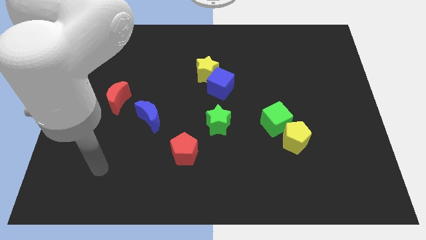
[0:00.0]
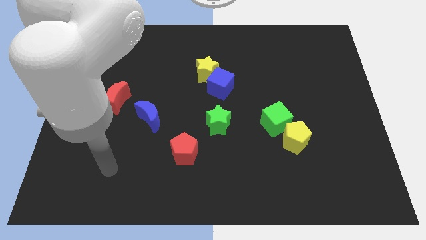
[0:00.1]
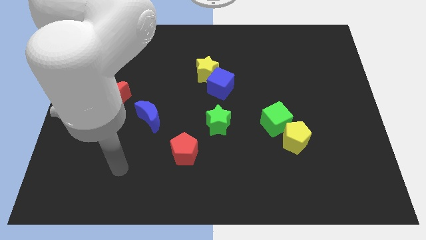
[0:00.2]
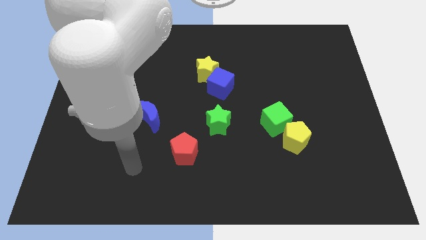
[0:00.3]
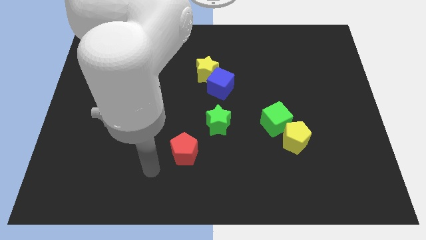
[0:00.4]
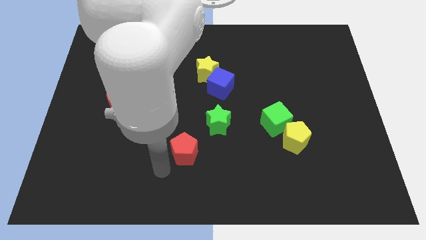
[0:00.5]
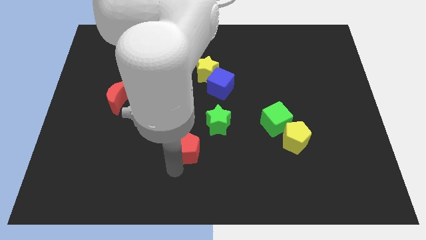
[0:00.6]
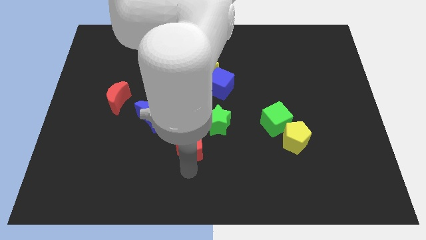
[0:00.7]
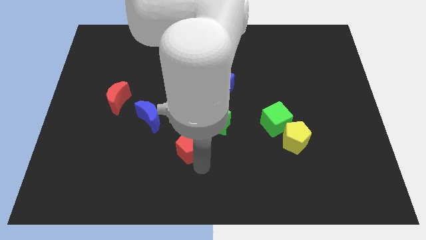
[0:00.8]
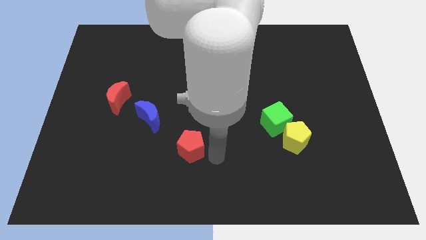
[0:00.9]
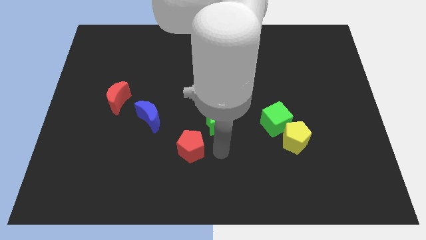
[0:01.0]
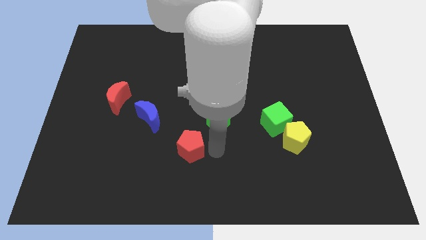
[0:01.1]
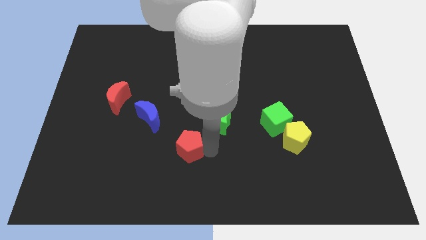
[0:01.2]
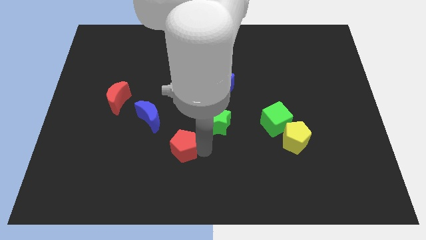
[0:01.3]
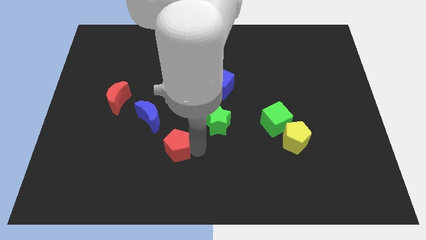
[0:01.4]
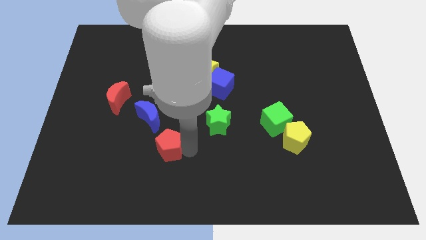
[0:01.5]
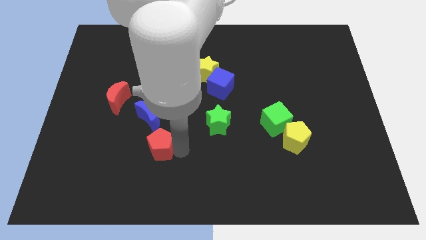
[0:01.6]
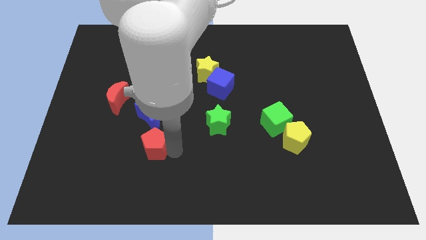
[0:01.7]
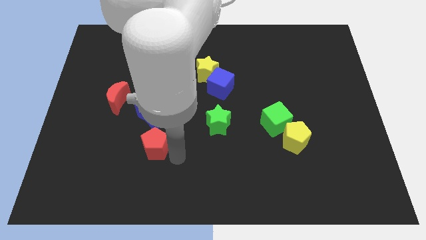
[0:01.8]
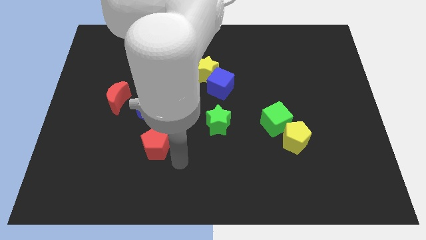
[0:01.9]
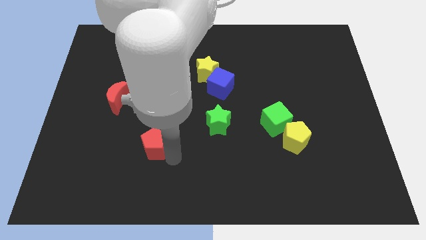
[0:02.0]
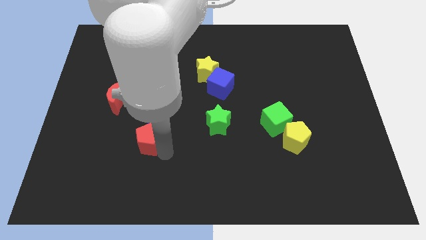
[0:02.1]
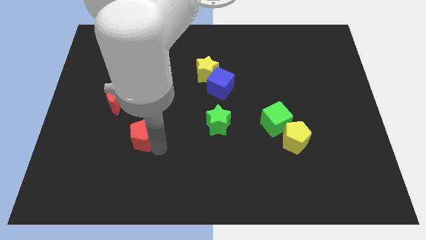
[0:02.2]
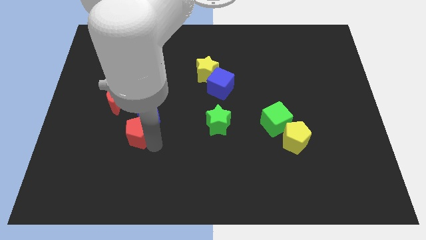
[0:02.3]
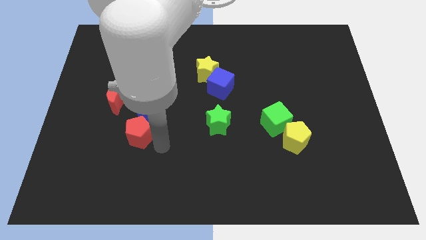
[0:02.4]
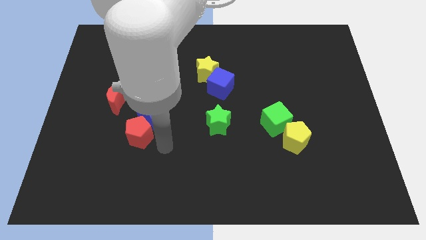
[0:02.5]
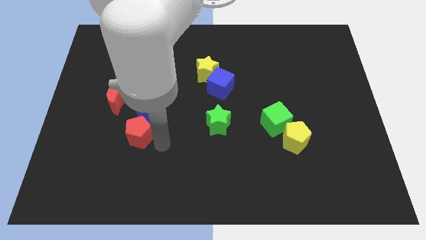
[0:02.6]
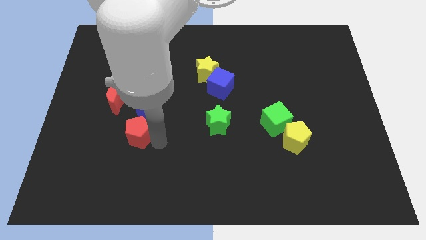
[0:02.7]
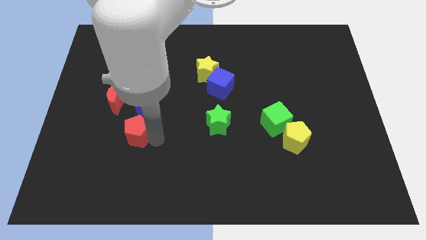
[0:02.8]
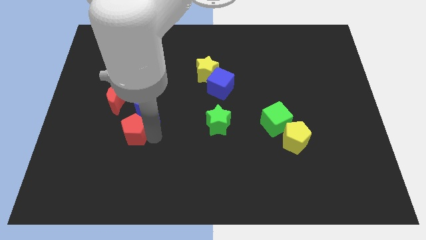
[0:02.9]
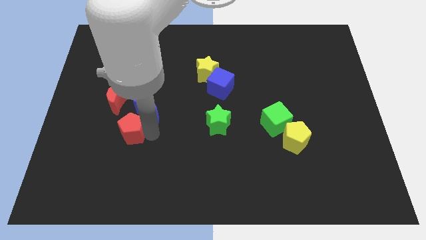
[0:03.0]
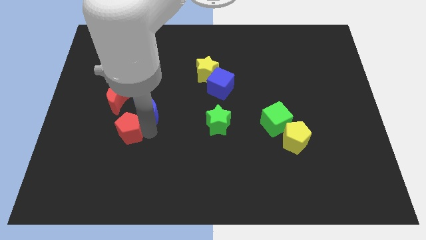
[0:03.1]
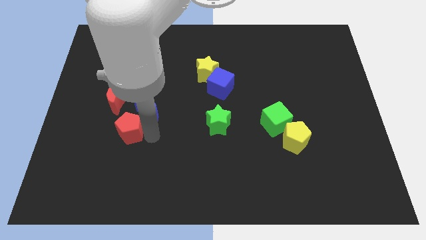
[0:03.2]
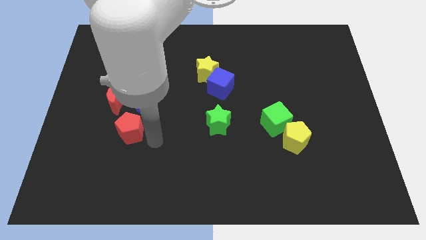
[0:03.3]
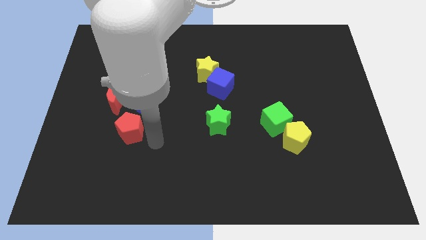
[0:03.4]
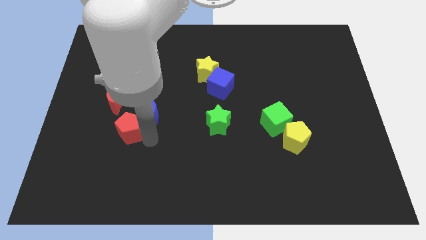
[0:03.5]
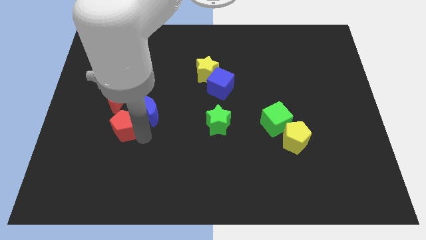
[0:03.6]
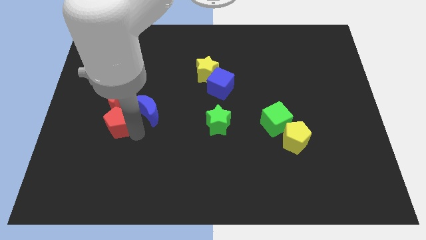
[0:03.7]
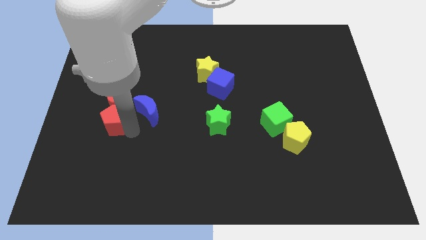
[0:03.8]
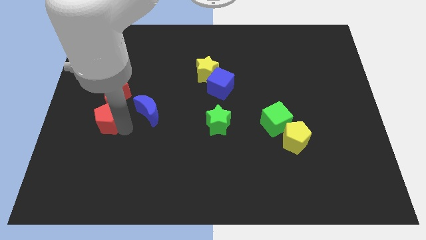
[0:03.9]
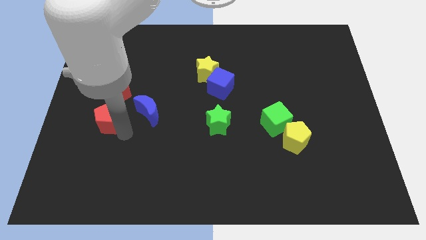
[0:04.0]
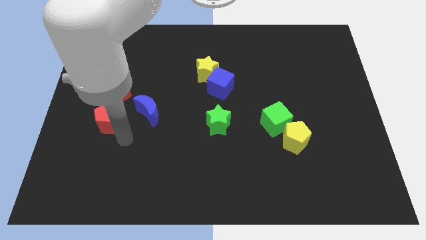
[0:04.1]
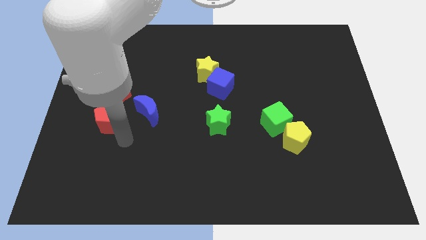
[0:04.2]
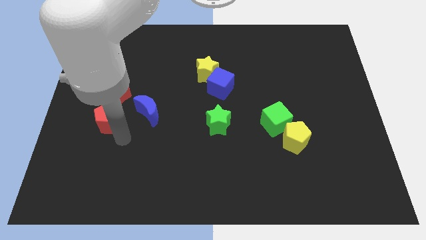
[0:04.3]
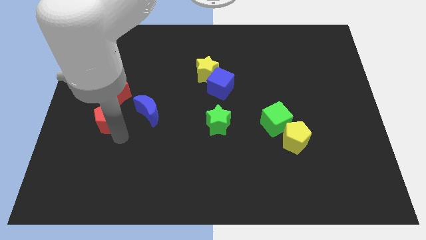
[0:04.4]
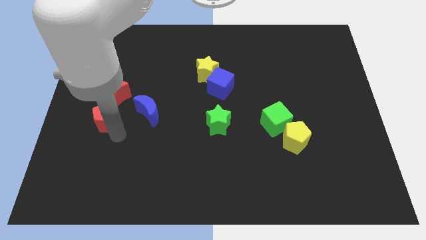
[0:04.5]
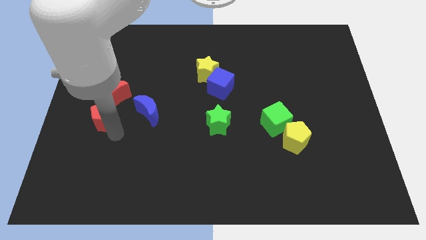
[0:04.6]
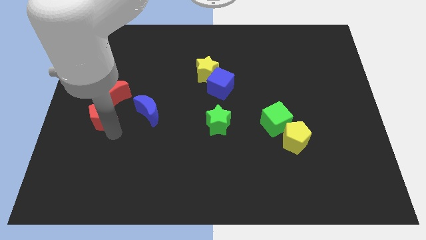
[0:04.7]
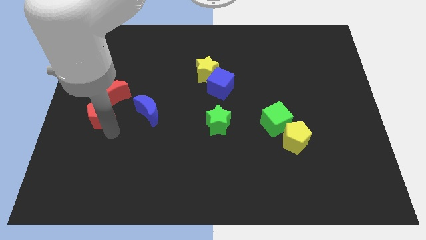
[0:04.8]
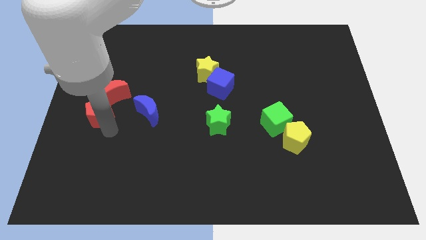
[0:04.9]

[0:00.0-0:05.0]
slide the red pentagon to the center left

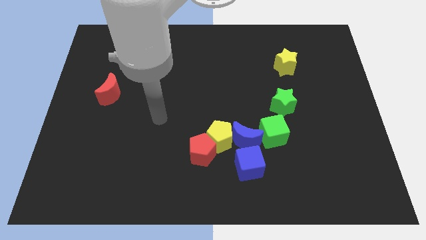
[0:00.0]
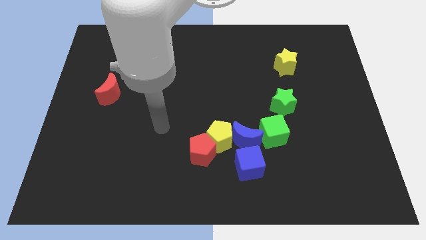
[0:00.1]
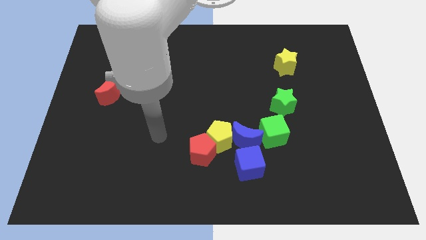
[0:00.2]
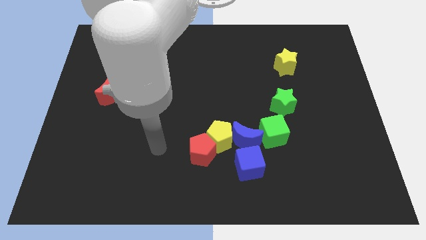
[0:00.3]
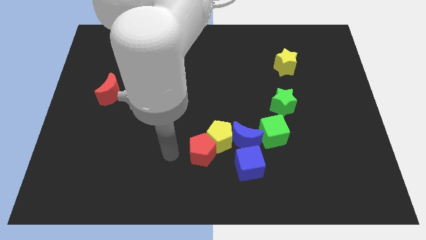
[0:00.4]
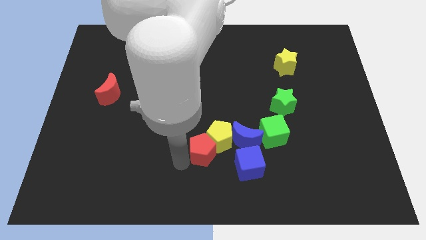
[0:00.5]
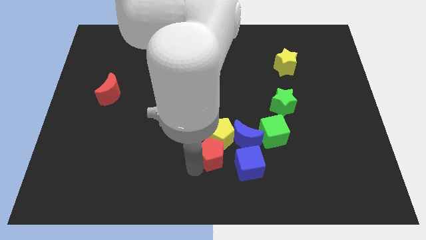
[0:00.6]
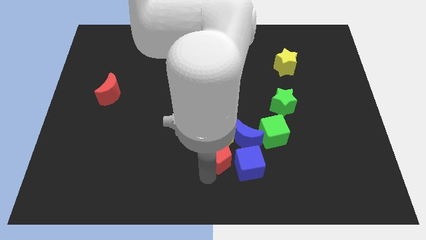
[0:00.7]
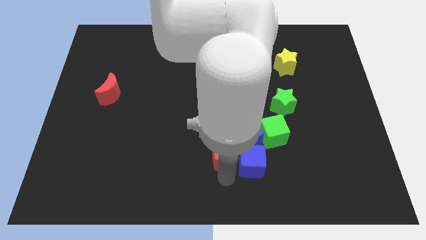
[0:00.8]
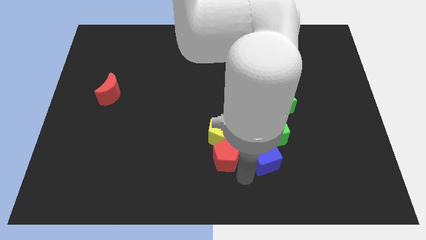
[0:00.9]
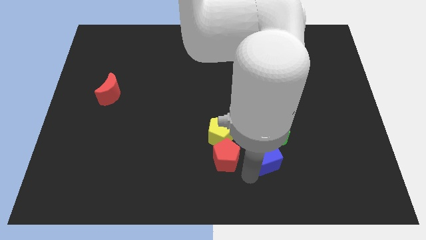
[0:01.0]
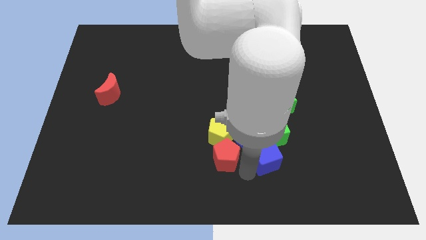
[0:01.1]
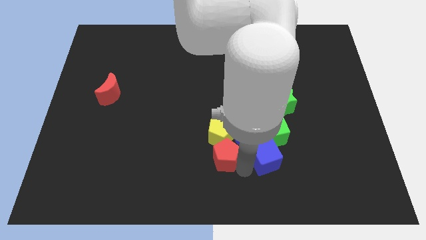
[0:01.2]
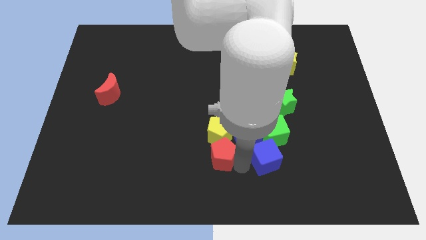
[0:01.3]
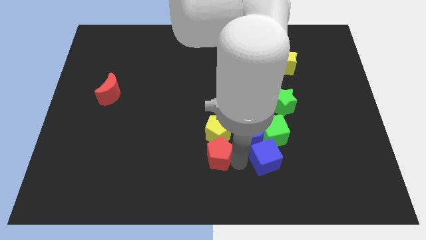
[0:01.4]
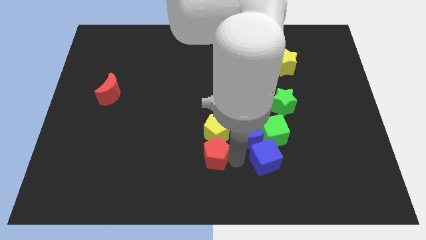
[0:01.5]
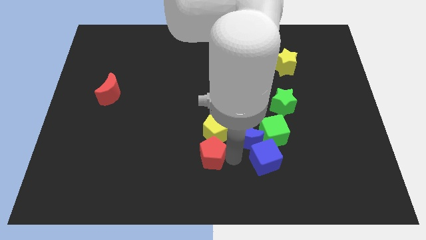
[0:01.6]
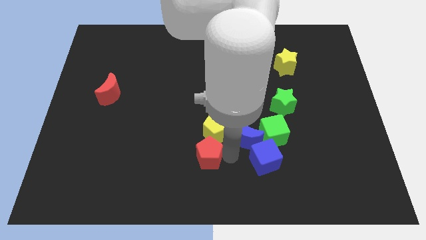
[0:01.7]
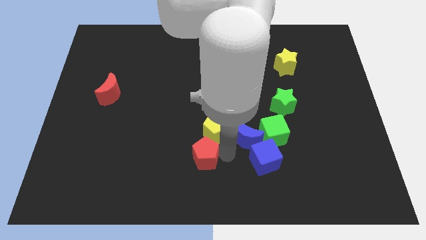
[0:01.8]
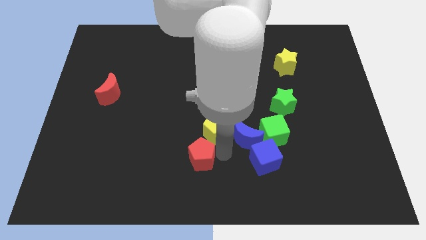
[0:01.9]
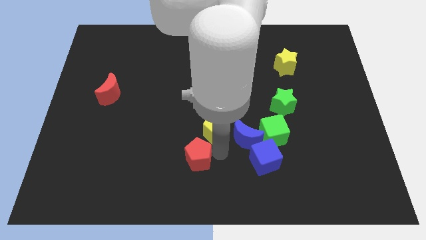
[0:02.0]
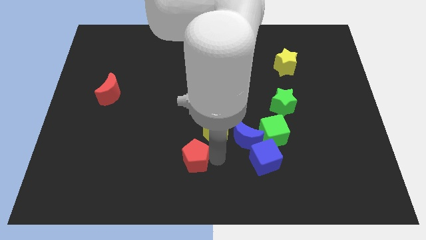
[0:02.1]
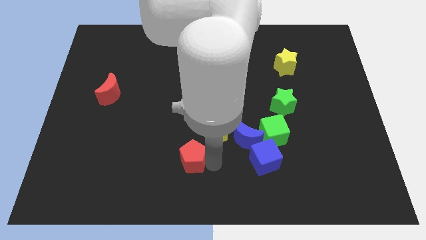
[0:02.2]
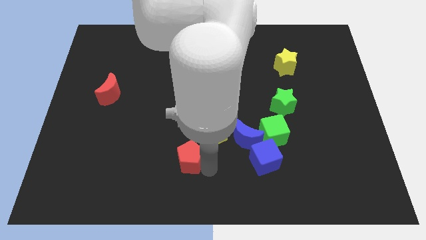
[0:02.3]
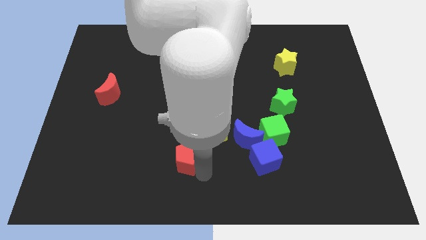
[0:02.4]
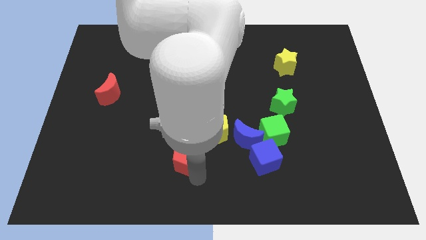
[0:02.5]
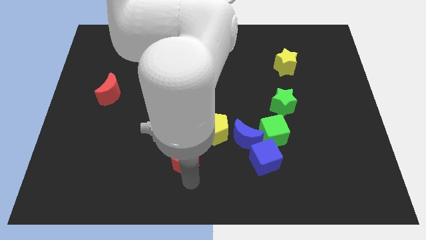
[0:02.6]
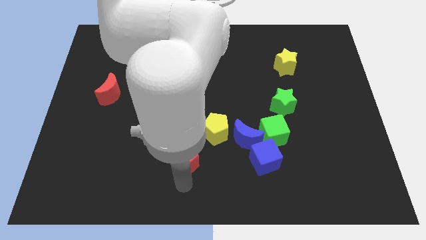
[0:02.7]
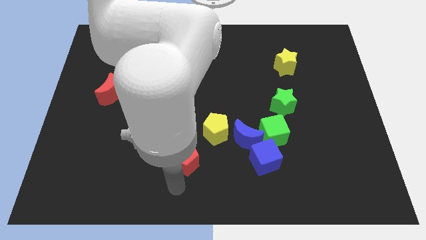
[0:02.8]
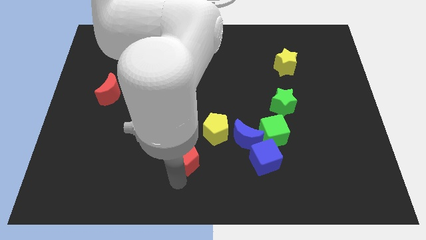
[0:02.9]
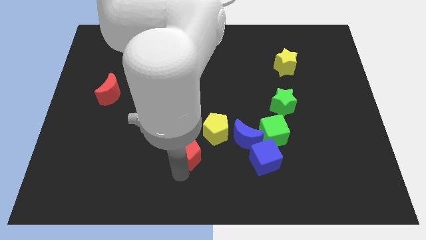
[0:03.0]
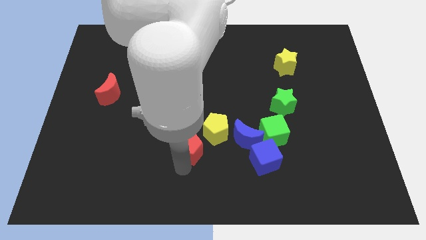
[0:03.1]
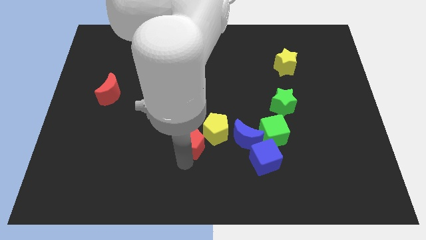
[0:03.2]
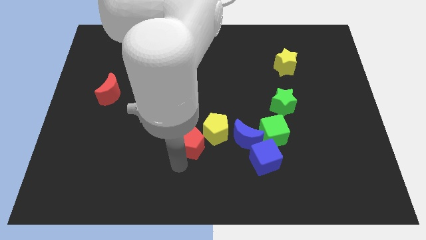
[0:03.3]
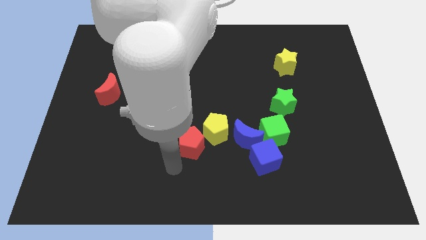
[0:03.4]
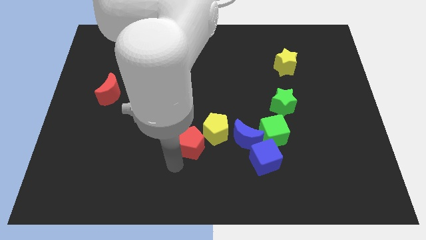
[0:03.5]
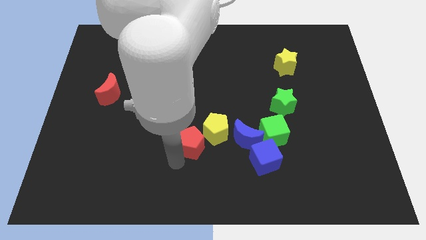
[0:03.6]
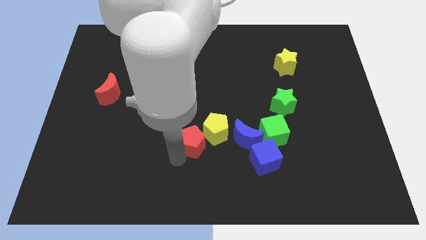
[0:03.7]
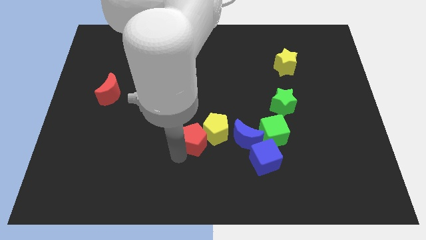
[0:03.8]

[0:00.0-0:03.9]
slide the red pentagon to the center of the board
